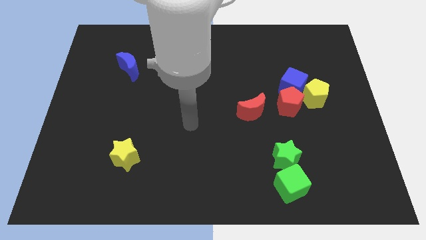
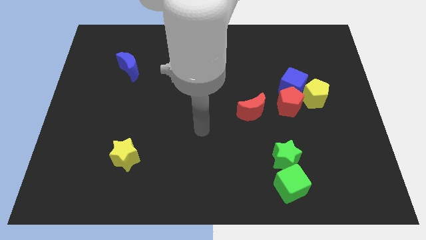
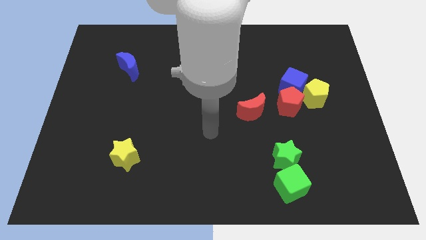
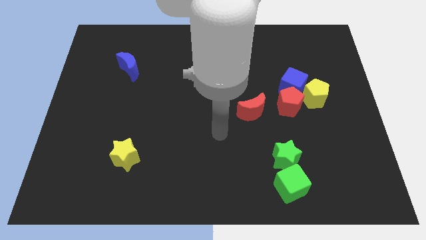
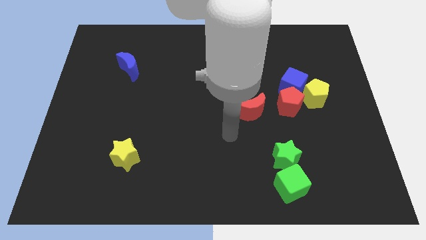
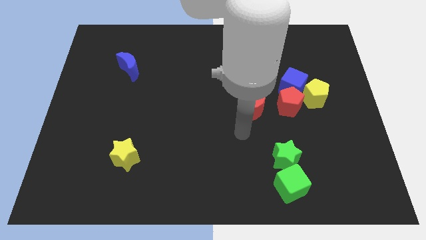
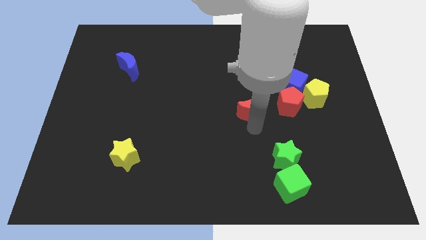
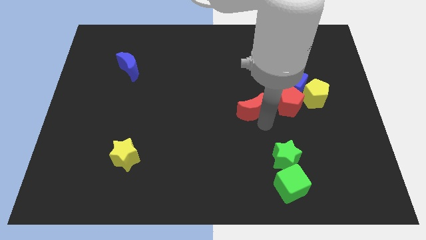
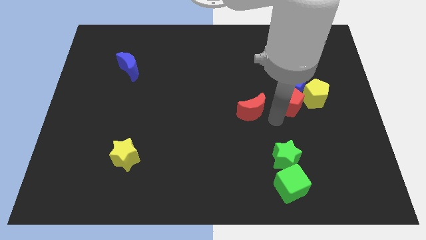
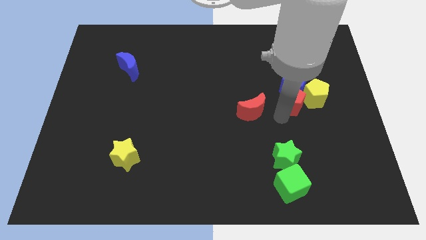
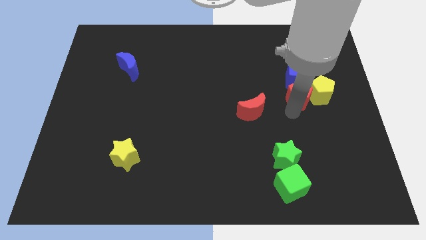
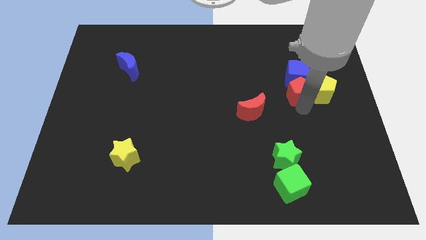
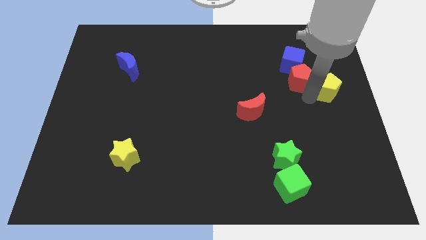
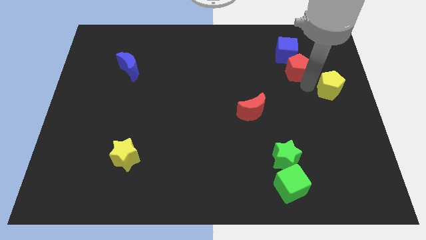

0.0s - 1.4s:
move the blue cube away from the red pentagon and yellow pentagon

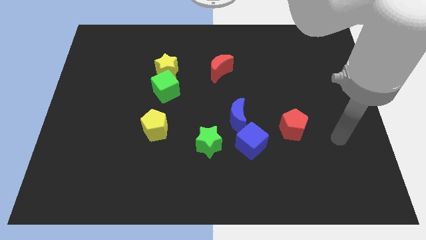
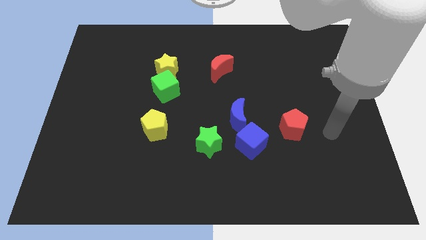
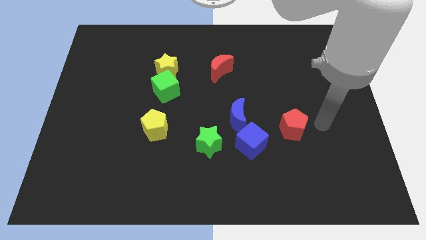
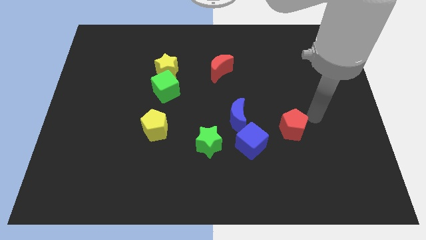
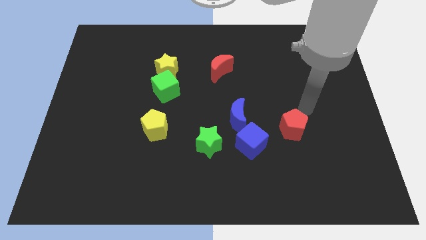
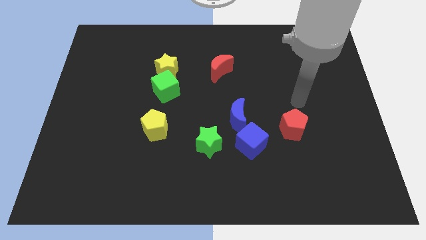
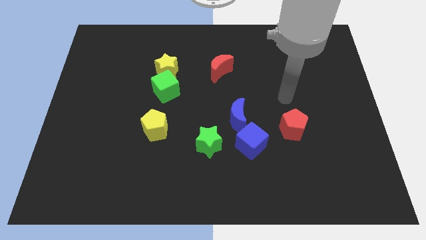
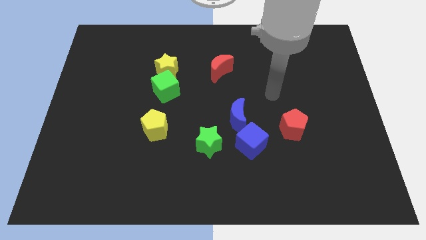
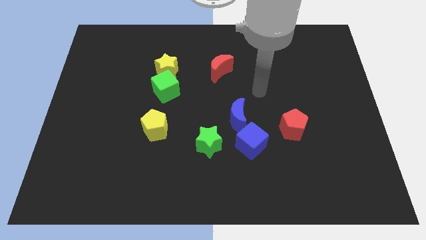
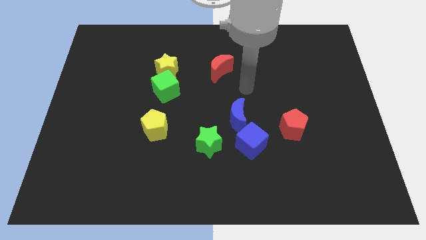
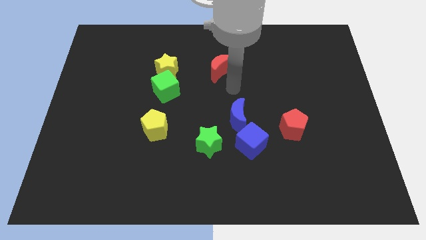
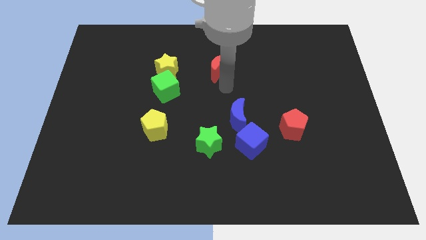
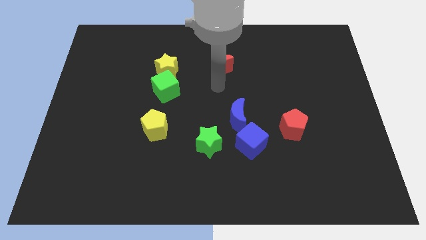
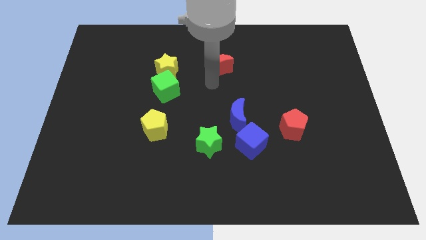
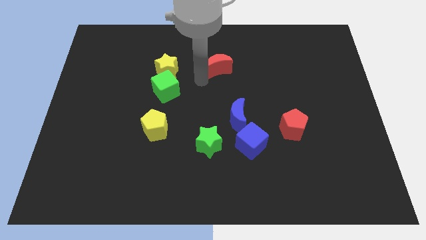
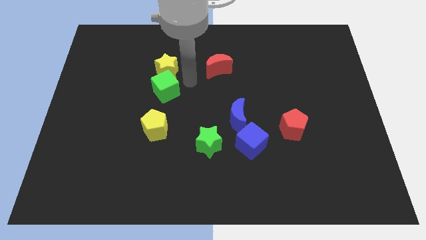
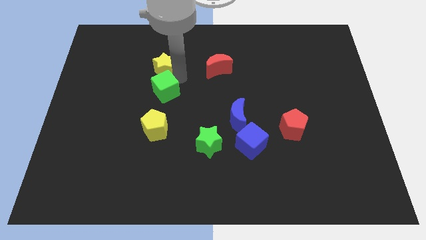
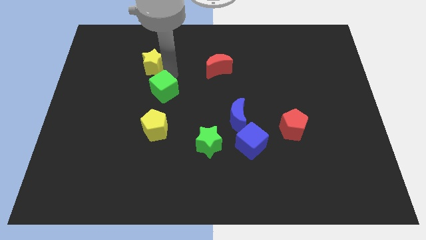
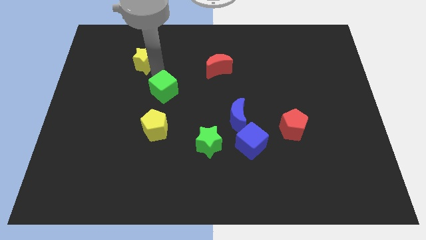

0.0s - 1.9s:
move the green cube away from the yellow star

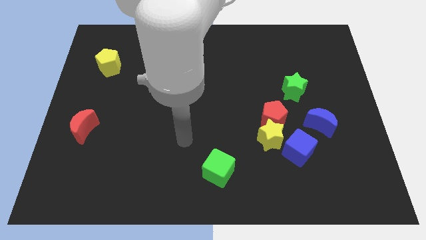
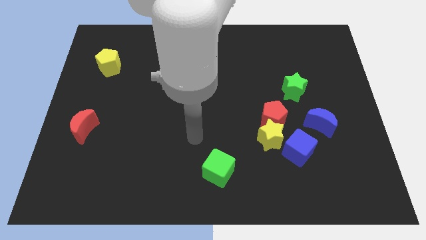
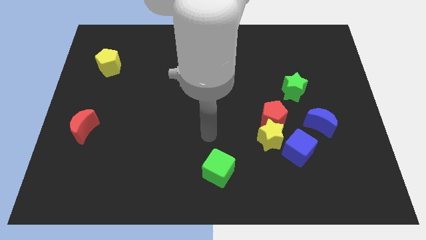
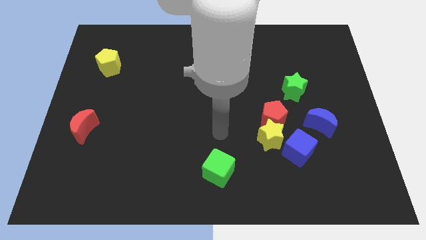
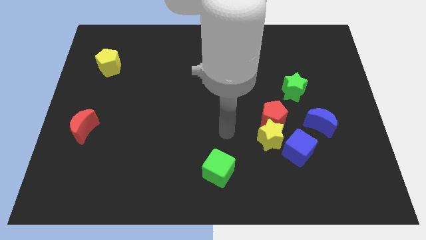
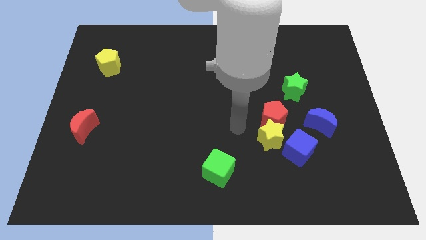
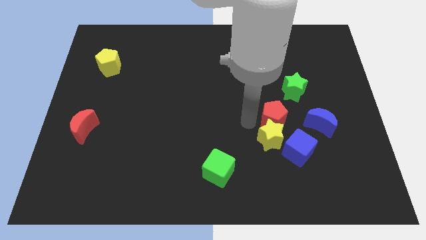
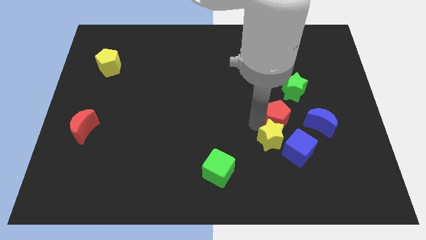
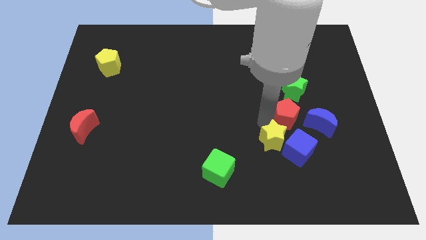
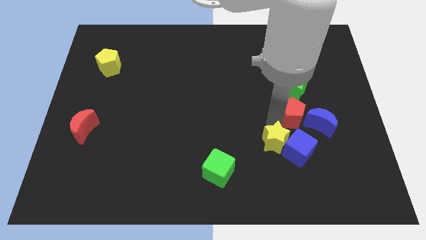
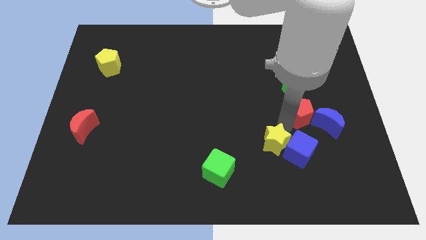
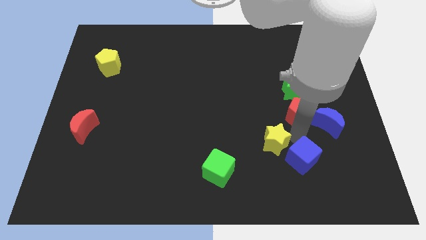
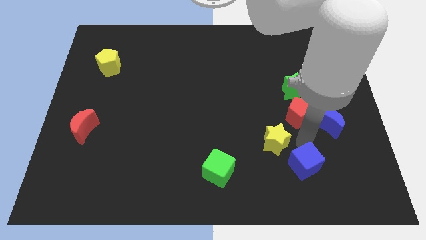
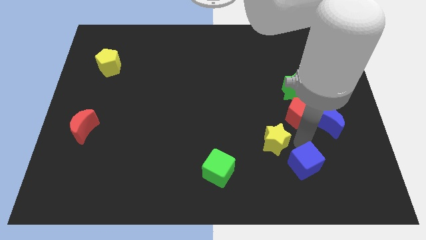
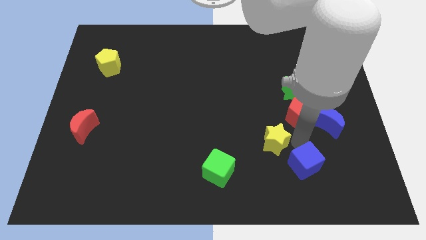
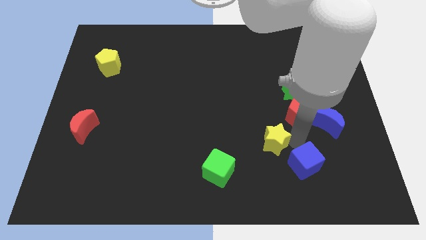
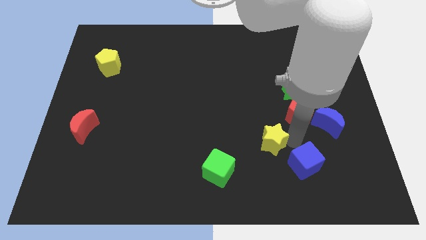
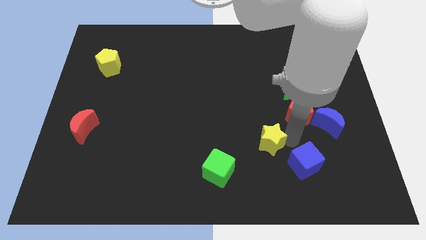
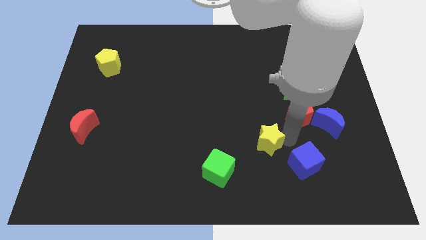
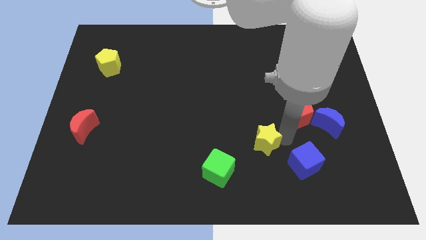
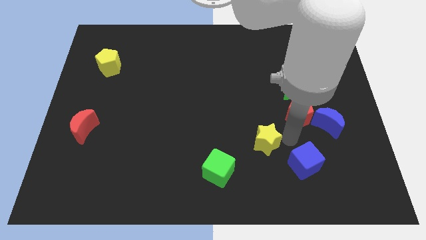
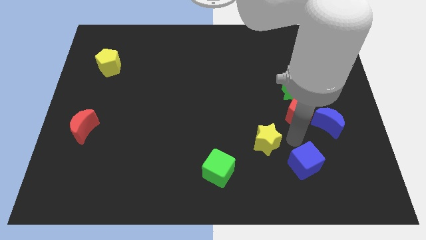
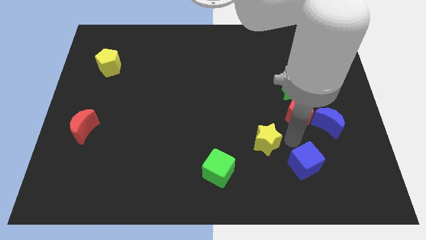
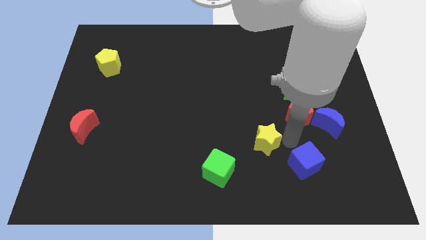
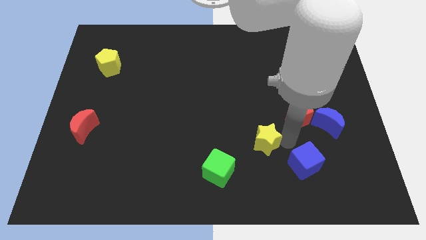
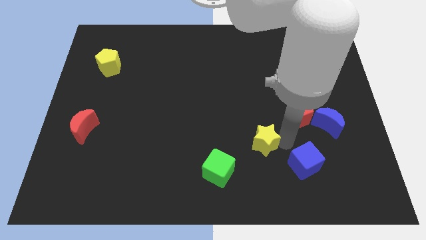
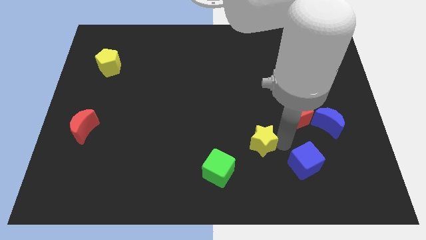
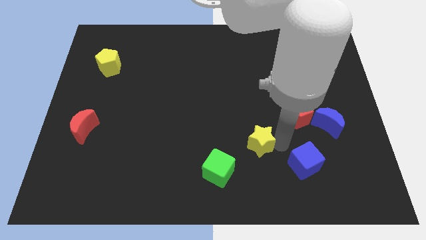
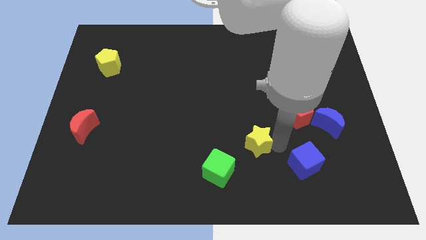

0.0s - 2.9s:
separate the yellow star from the red pentagon and blue cube

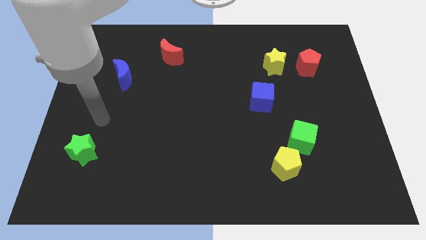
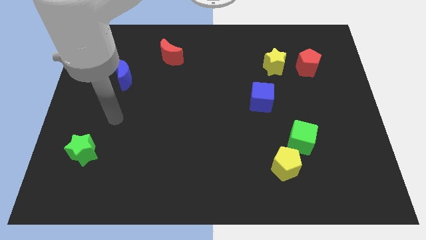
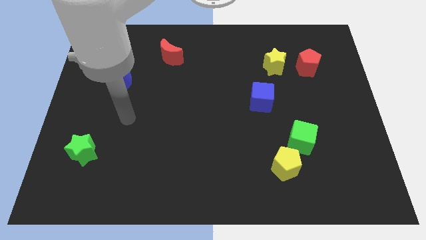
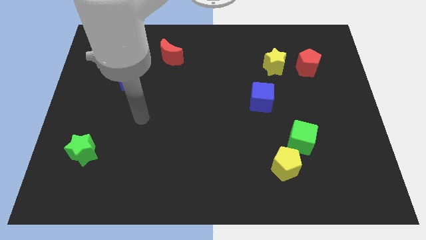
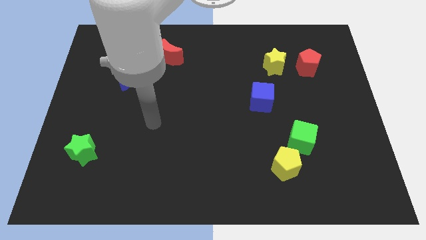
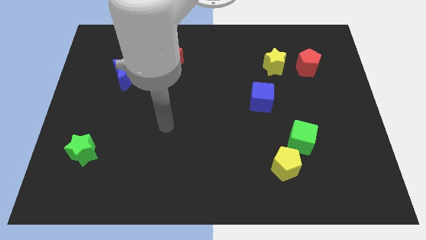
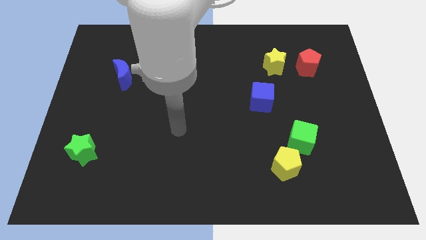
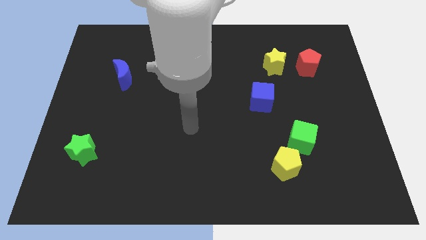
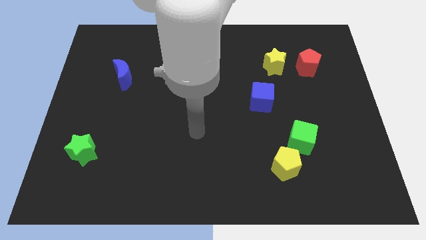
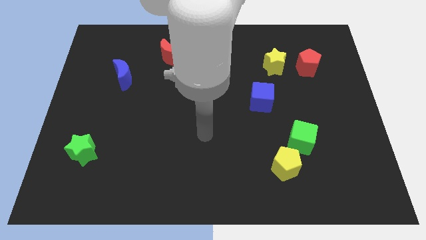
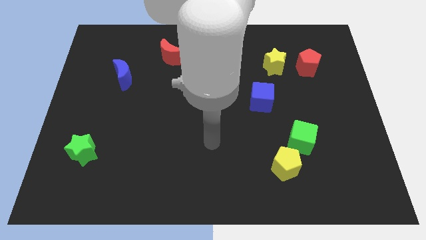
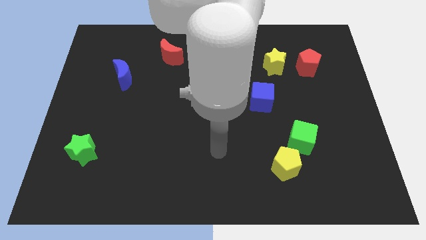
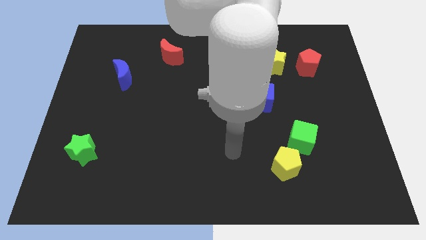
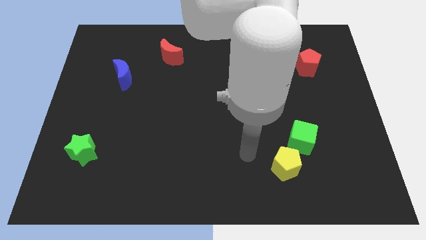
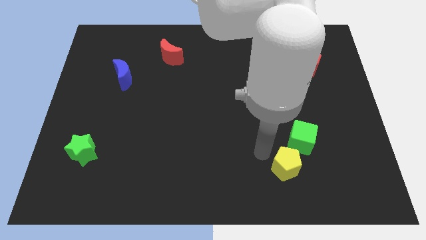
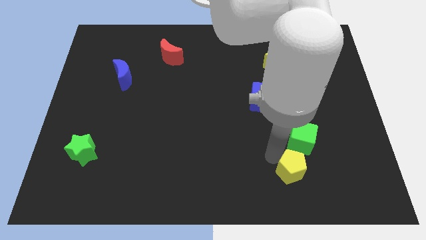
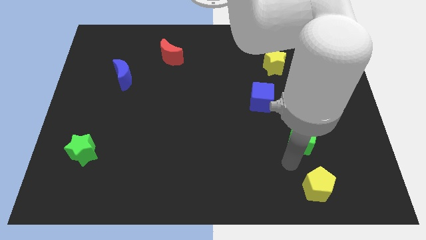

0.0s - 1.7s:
separate the green cube from the yellow pentagon

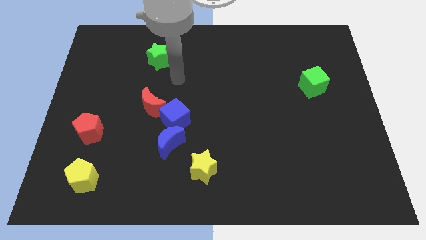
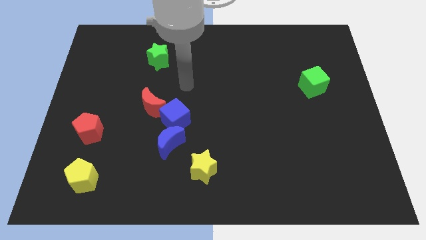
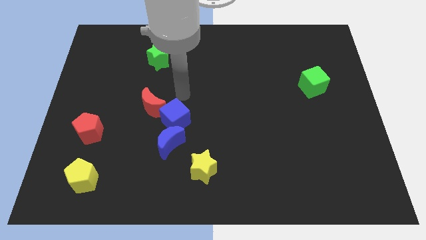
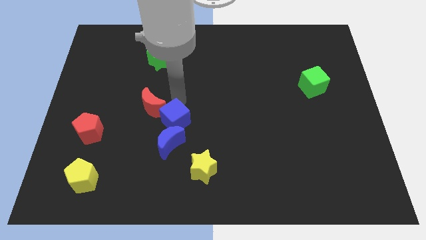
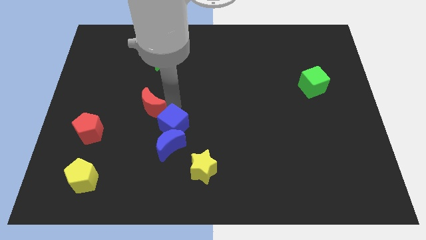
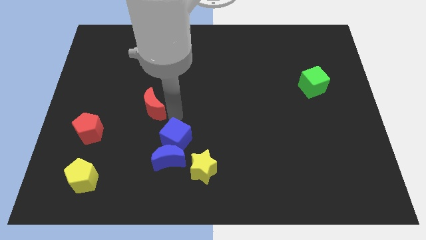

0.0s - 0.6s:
pull the red moon apart from the blue cube

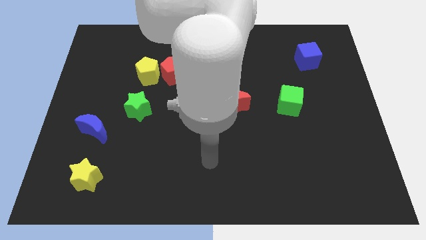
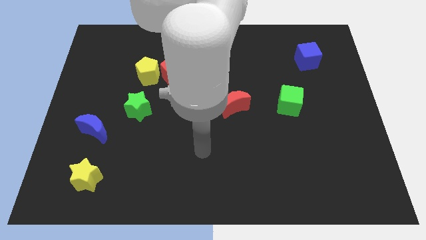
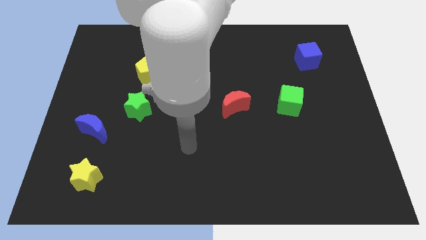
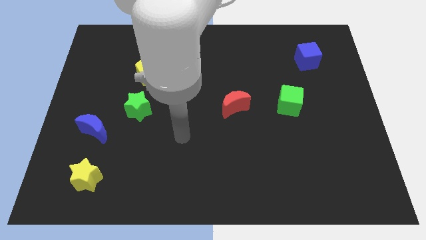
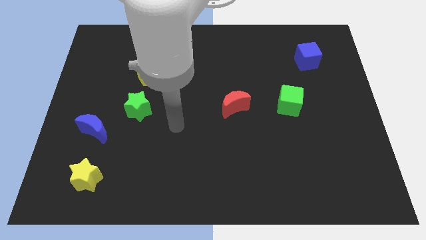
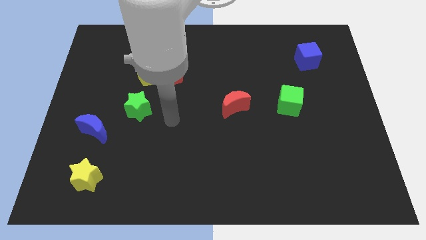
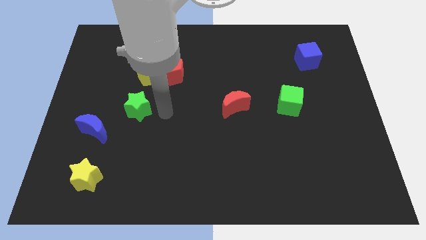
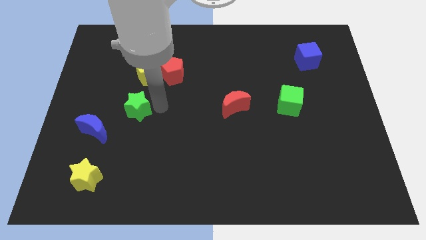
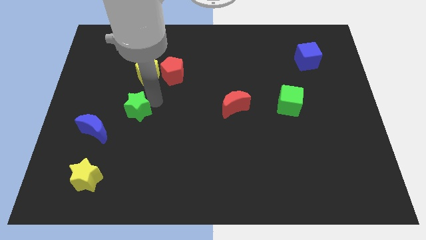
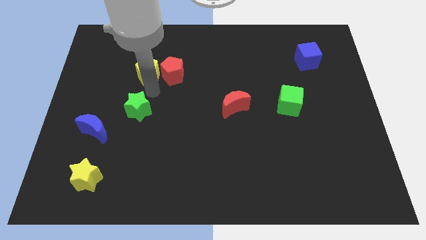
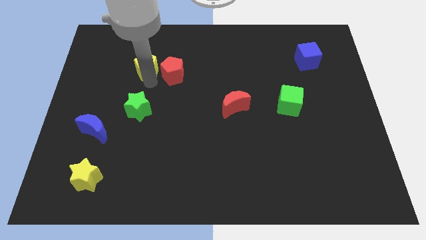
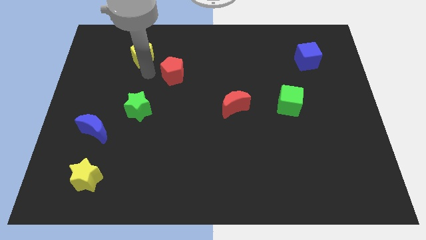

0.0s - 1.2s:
pull the red pentagon apart from the yellow pentagon
